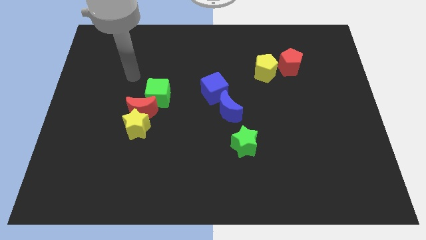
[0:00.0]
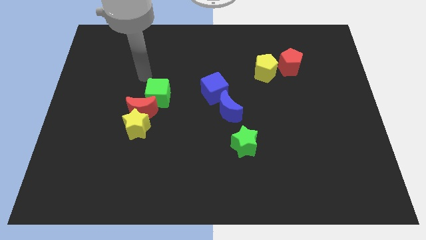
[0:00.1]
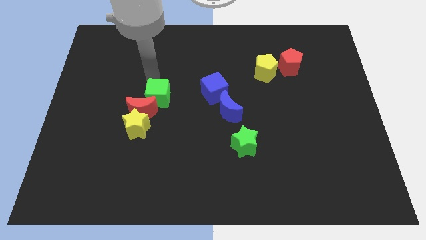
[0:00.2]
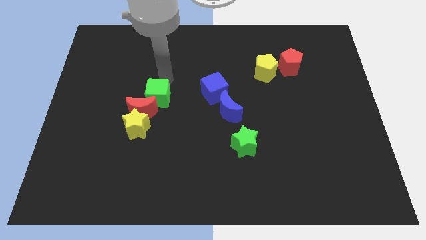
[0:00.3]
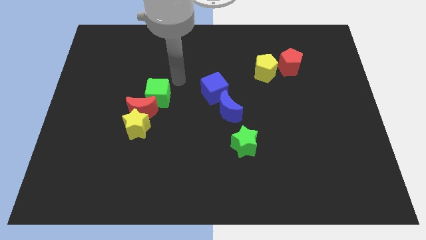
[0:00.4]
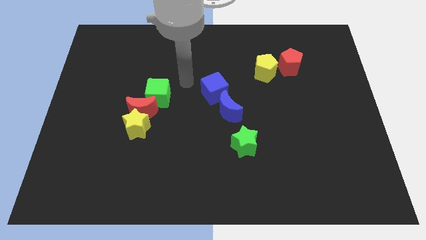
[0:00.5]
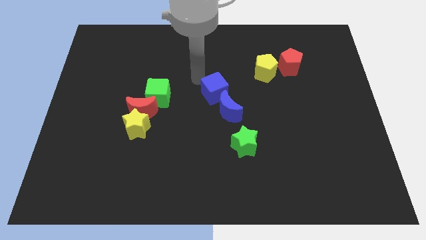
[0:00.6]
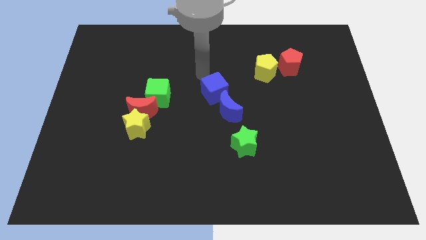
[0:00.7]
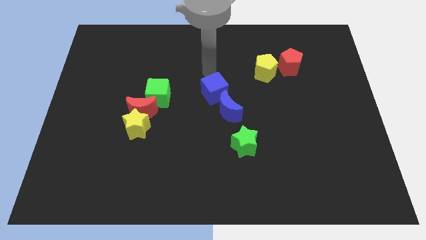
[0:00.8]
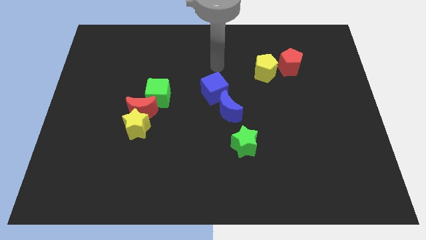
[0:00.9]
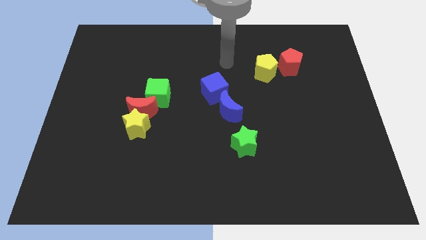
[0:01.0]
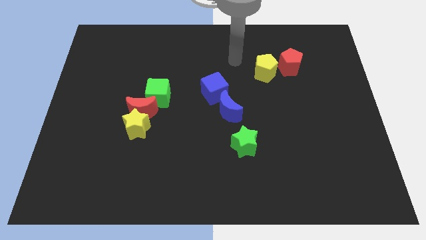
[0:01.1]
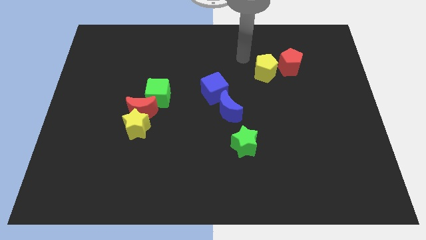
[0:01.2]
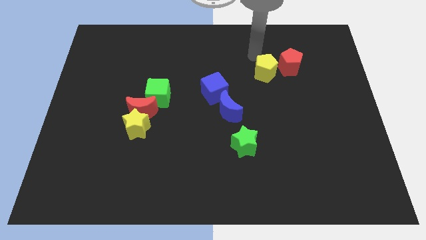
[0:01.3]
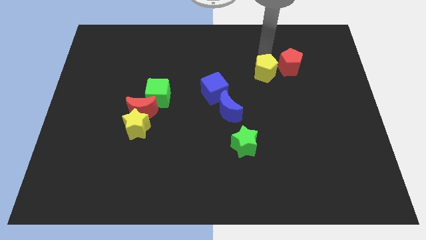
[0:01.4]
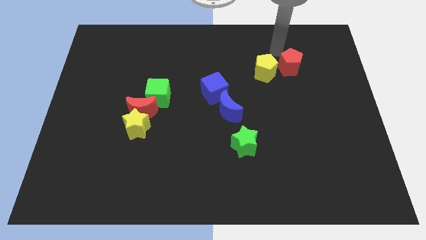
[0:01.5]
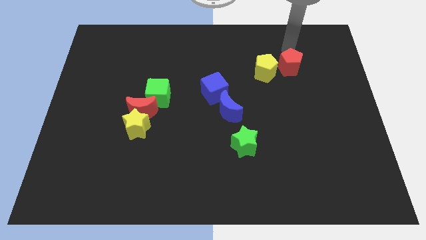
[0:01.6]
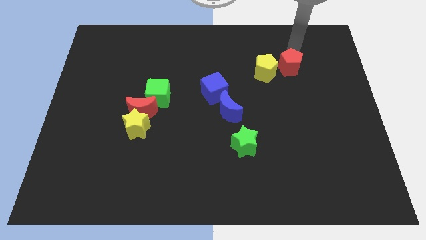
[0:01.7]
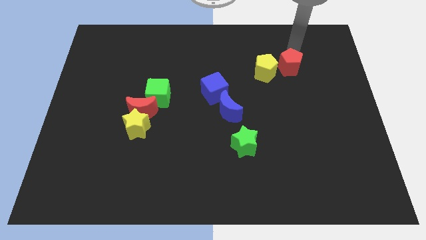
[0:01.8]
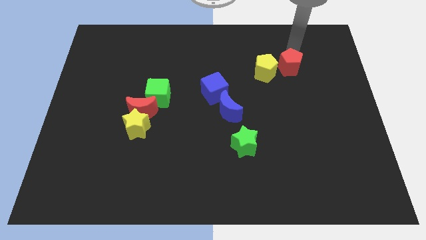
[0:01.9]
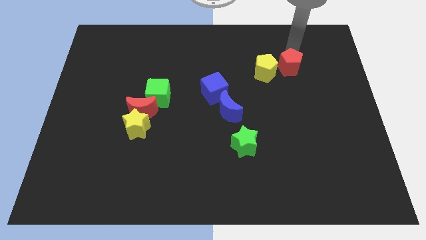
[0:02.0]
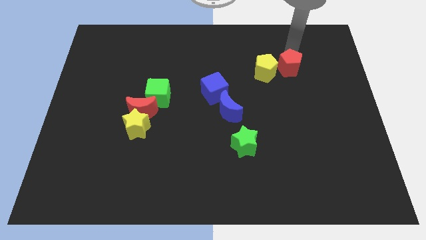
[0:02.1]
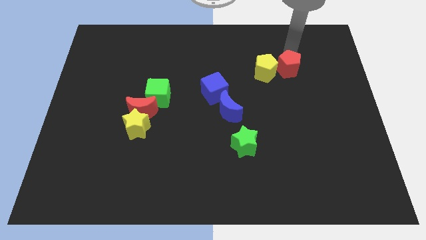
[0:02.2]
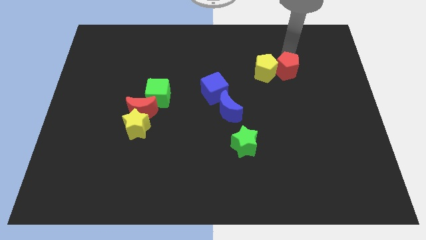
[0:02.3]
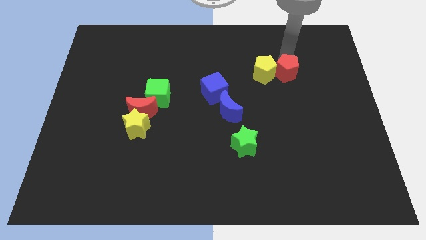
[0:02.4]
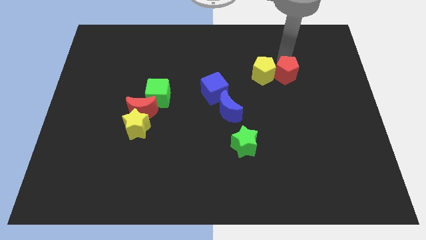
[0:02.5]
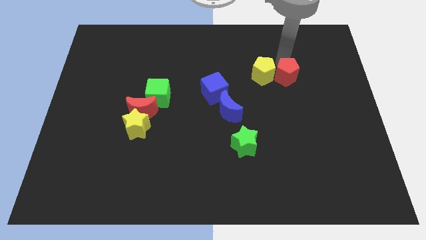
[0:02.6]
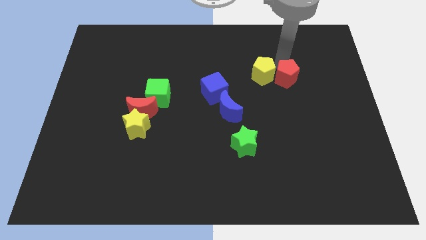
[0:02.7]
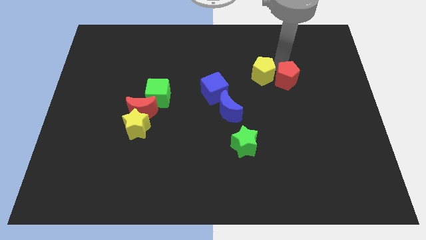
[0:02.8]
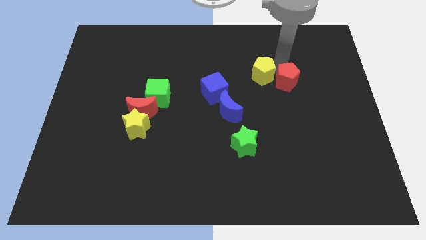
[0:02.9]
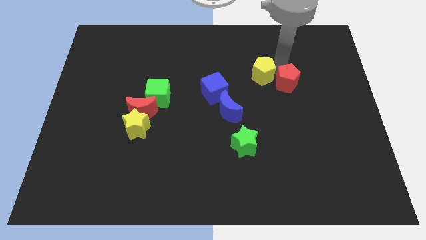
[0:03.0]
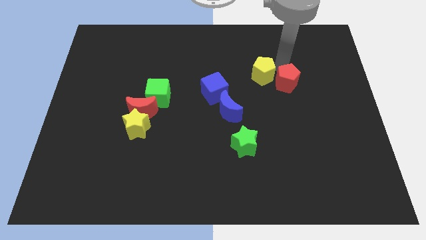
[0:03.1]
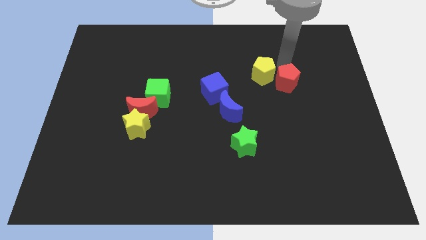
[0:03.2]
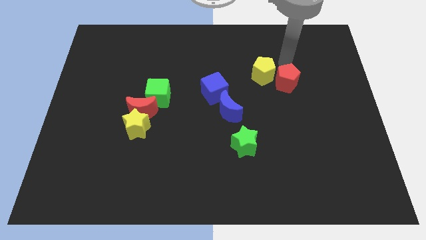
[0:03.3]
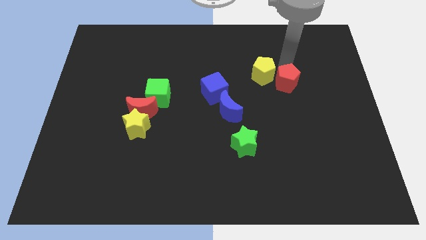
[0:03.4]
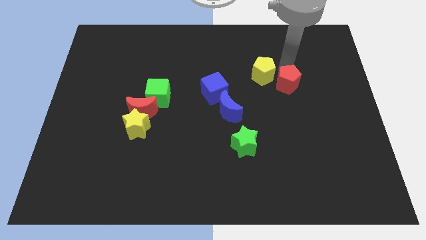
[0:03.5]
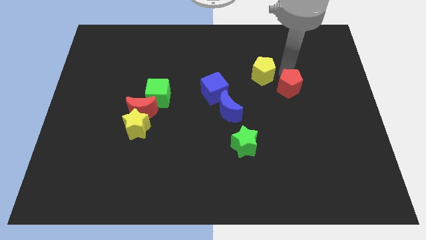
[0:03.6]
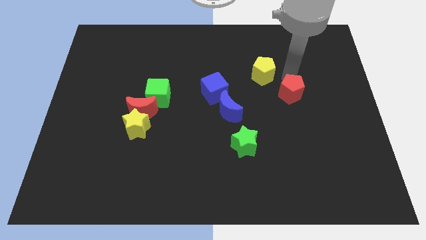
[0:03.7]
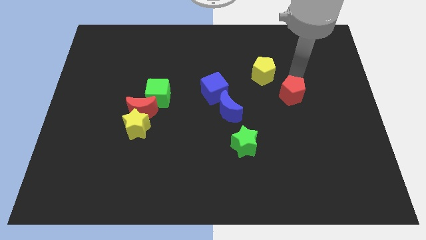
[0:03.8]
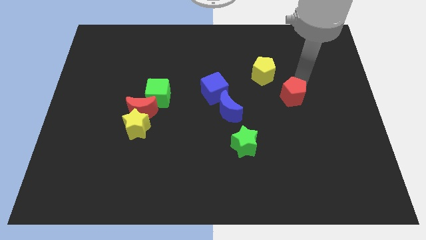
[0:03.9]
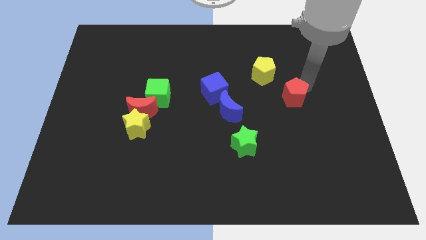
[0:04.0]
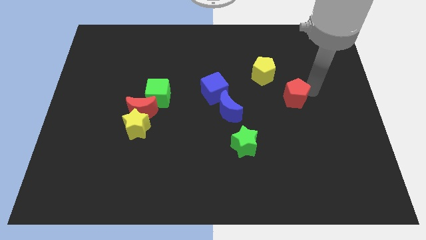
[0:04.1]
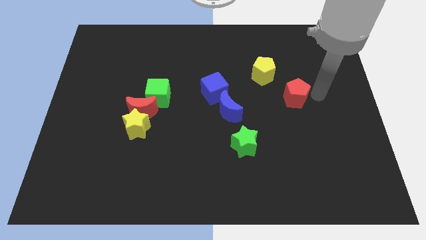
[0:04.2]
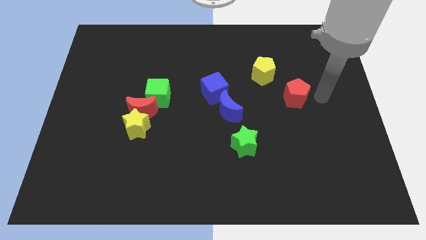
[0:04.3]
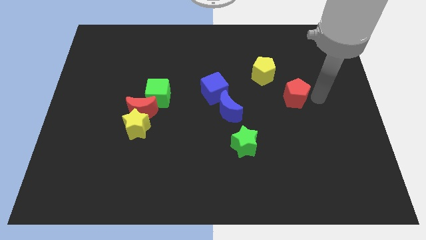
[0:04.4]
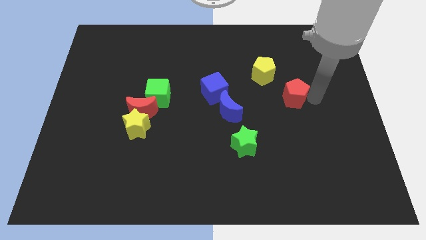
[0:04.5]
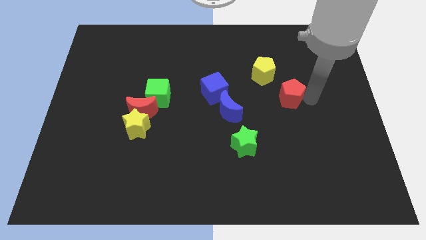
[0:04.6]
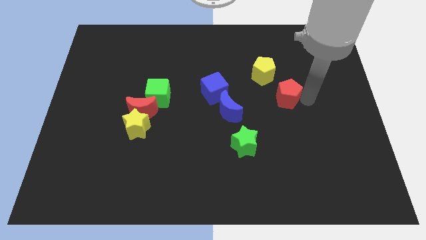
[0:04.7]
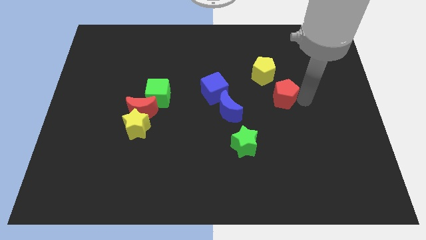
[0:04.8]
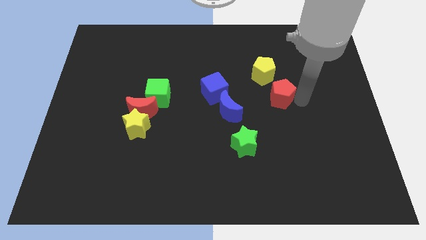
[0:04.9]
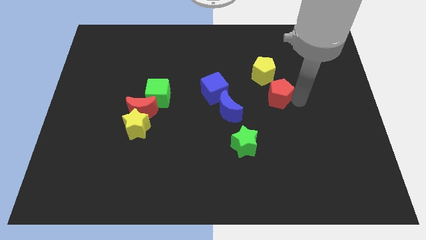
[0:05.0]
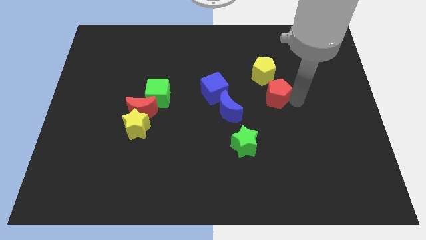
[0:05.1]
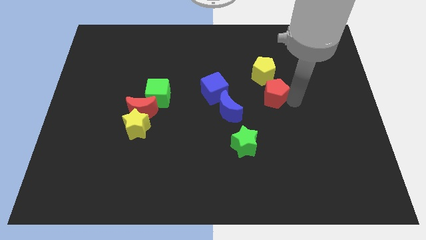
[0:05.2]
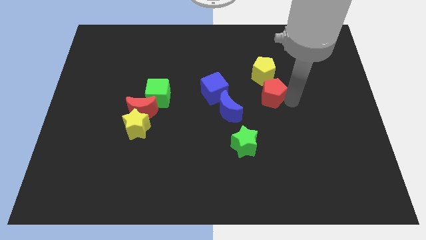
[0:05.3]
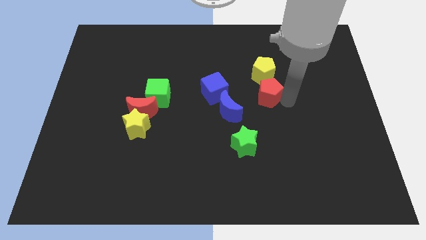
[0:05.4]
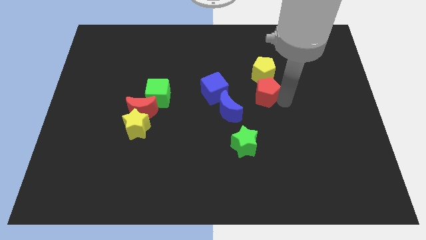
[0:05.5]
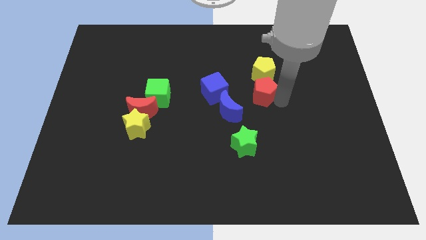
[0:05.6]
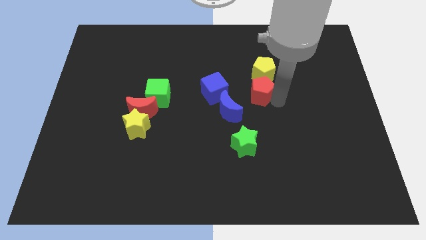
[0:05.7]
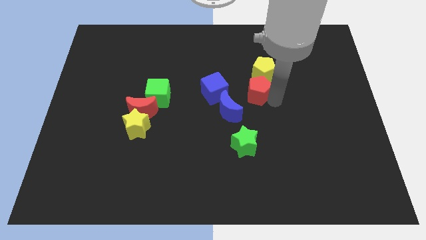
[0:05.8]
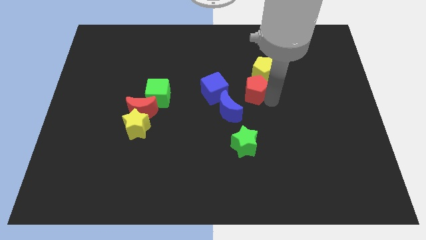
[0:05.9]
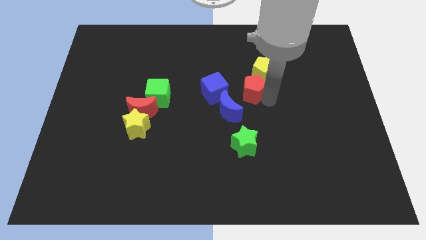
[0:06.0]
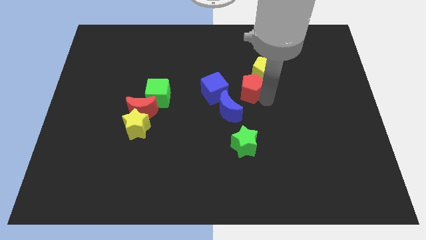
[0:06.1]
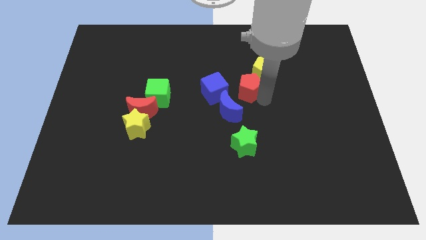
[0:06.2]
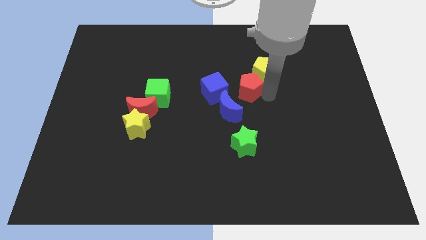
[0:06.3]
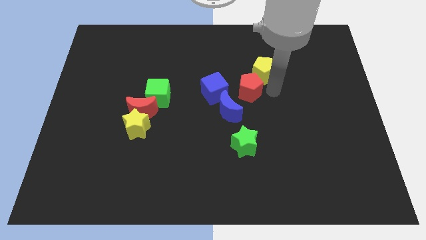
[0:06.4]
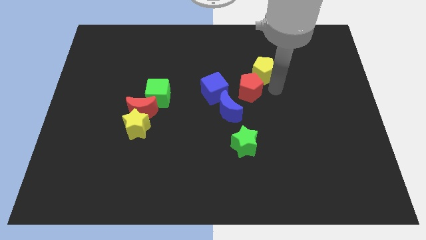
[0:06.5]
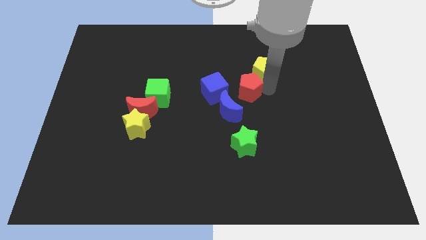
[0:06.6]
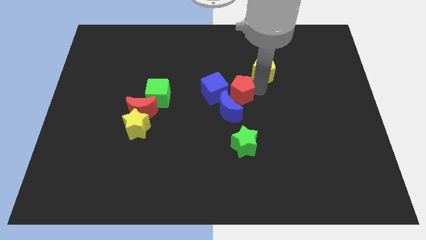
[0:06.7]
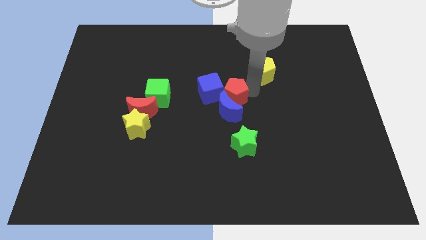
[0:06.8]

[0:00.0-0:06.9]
put the red pentagon close to the blue cube
